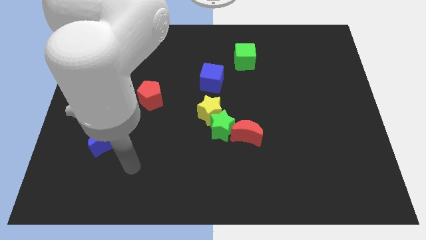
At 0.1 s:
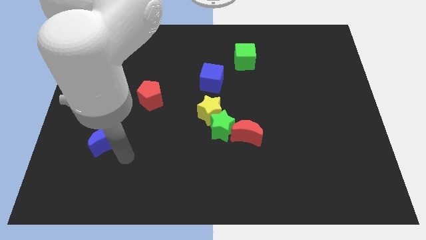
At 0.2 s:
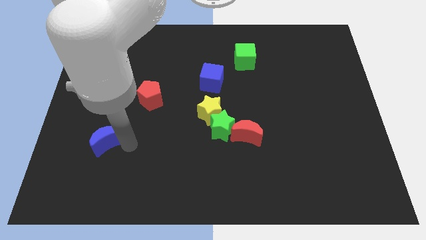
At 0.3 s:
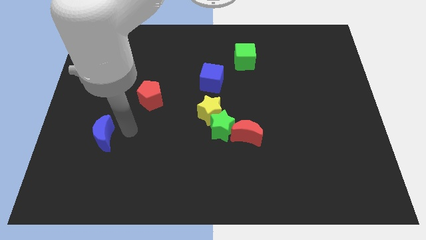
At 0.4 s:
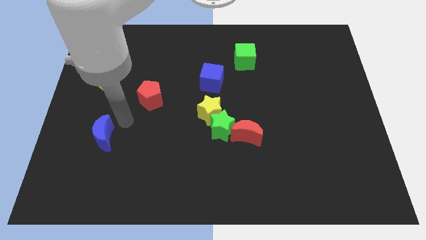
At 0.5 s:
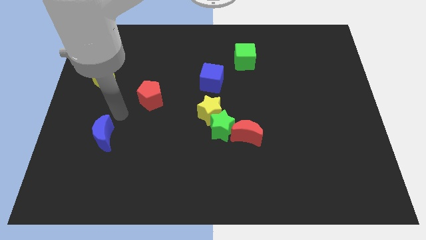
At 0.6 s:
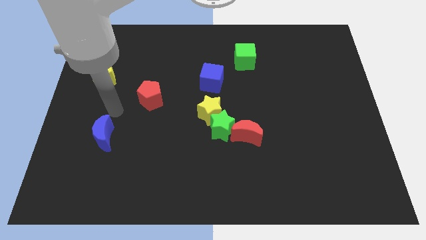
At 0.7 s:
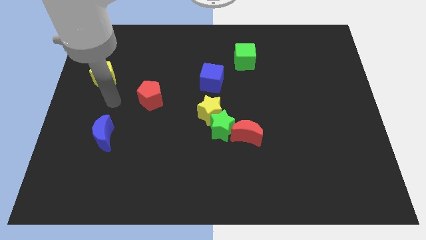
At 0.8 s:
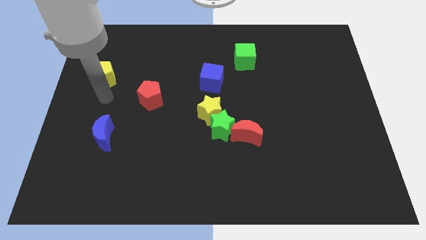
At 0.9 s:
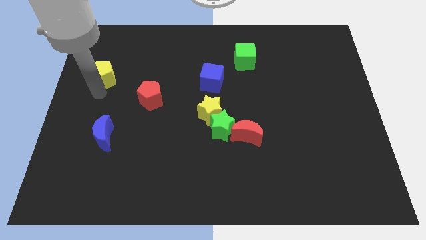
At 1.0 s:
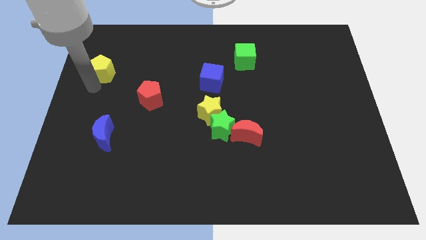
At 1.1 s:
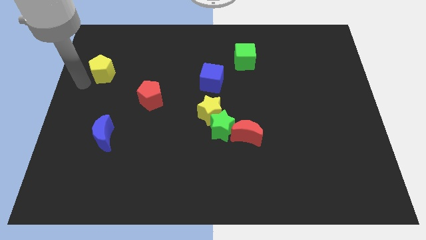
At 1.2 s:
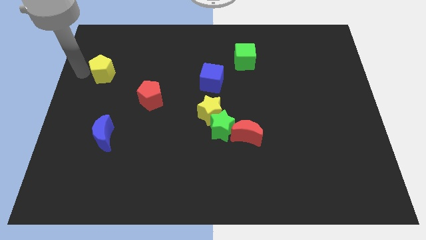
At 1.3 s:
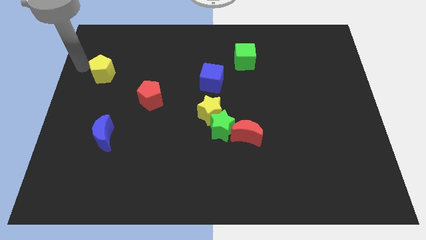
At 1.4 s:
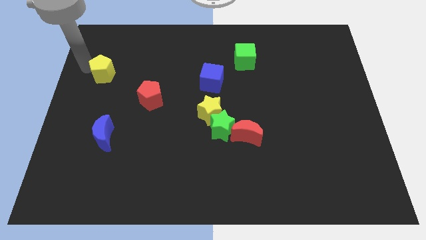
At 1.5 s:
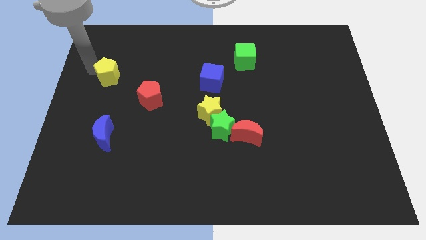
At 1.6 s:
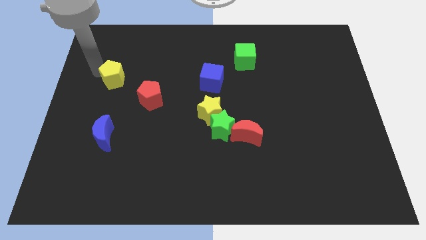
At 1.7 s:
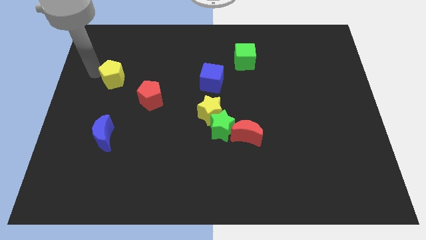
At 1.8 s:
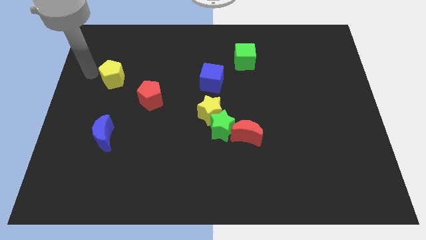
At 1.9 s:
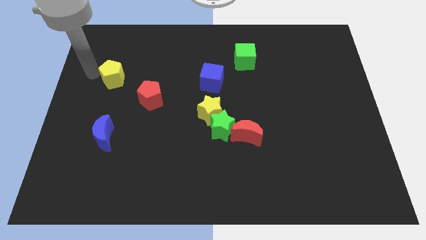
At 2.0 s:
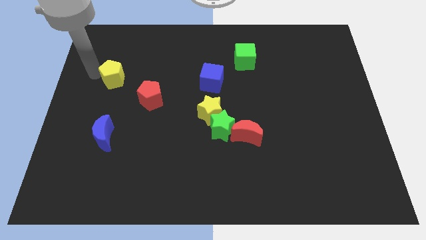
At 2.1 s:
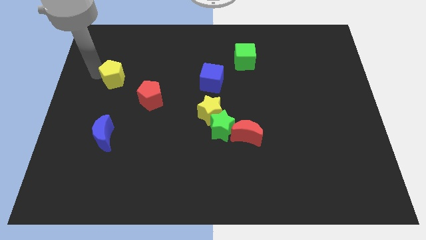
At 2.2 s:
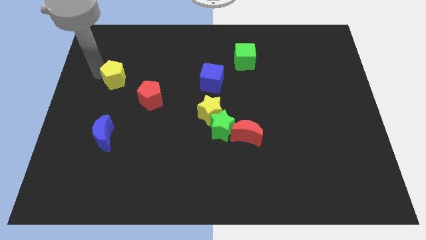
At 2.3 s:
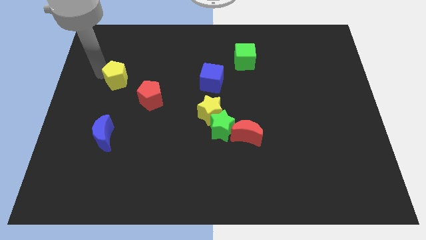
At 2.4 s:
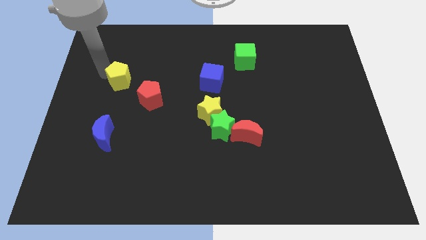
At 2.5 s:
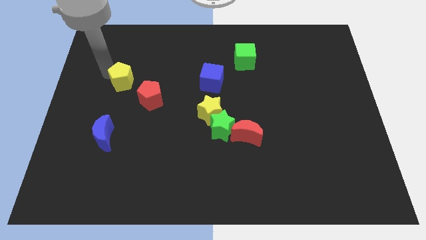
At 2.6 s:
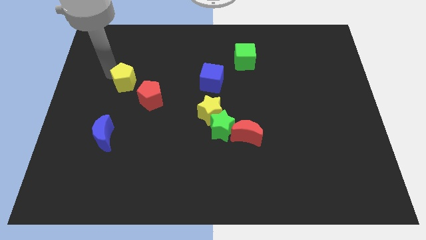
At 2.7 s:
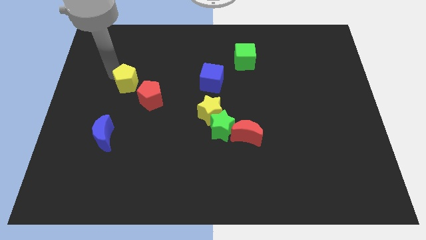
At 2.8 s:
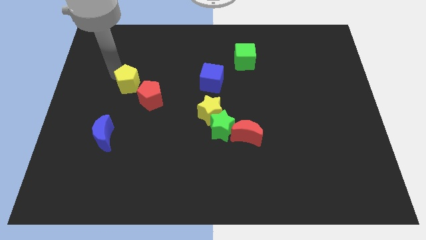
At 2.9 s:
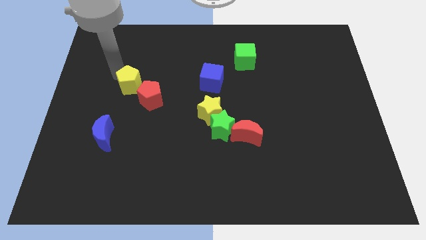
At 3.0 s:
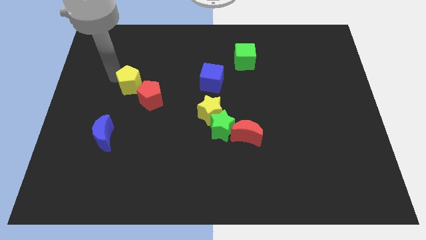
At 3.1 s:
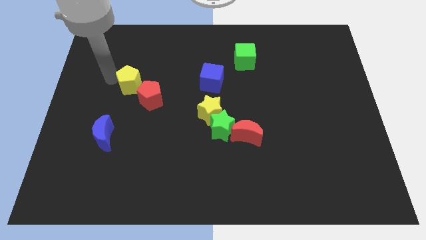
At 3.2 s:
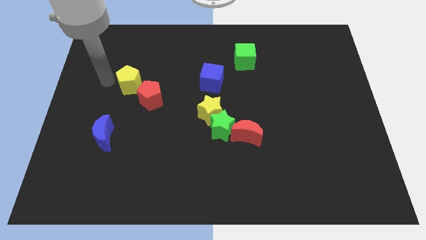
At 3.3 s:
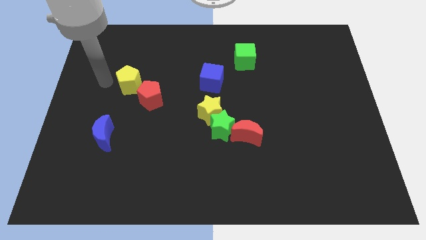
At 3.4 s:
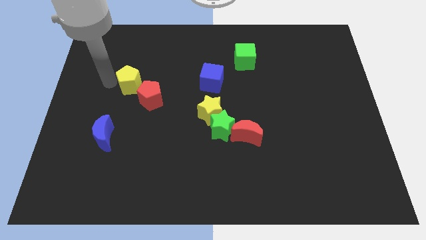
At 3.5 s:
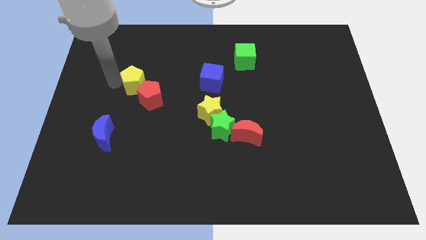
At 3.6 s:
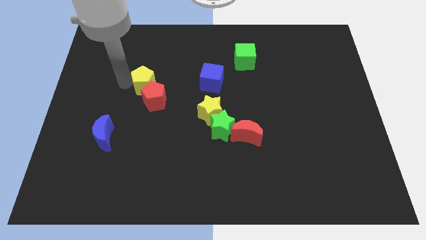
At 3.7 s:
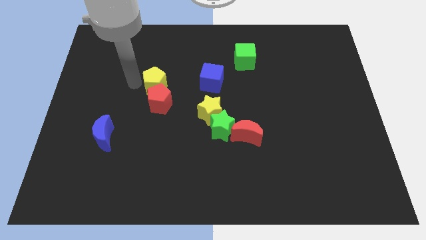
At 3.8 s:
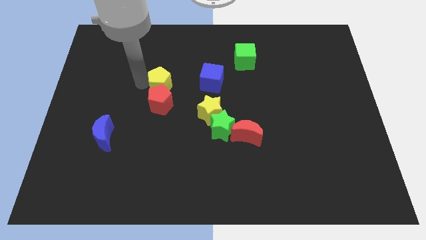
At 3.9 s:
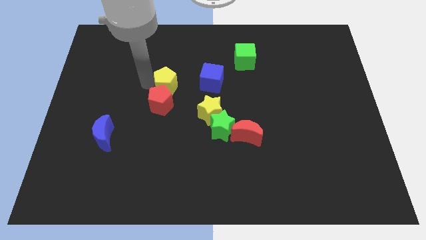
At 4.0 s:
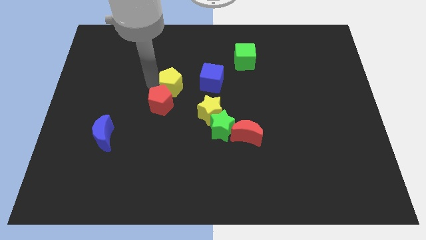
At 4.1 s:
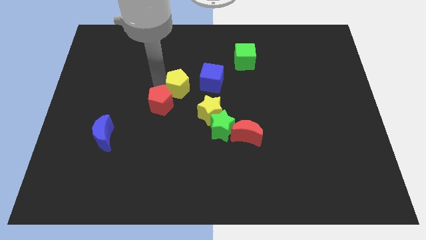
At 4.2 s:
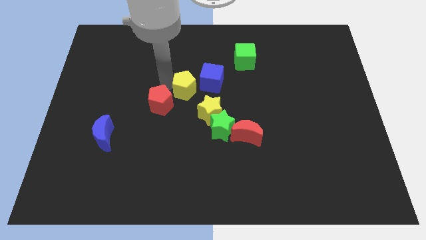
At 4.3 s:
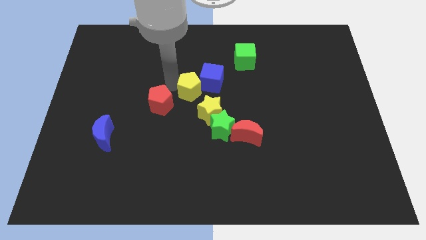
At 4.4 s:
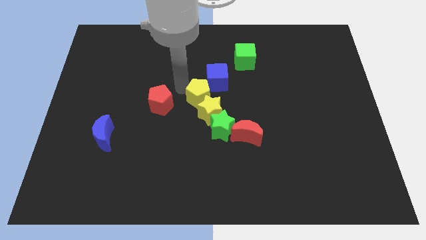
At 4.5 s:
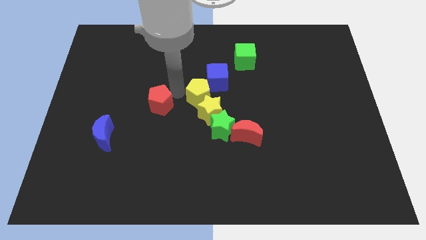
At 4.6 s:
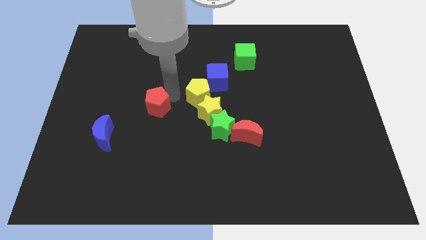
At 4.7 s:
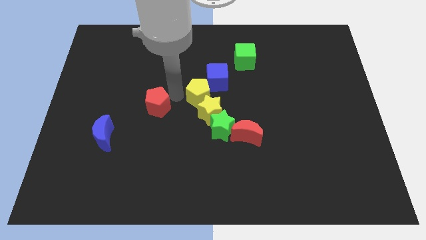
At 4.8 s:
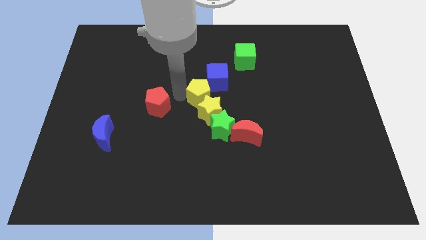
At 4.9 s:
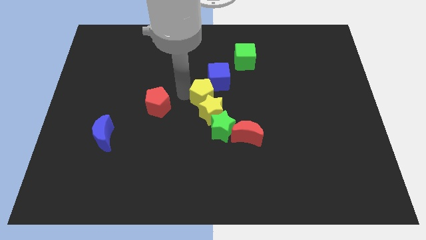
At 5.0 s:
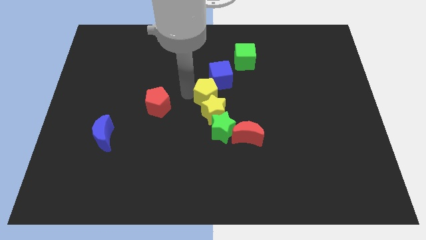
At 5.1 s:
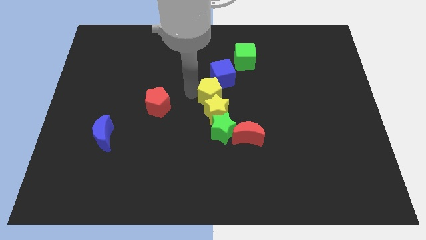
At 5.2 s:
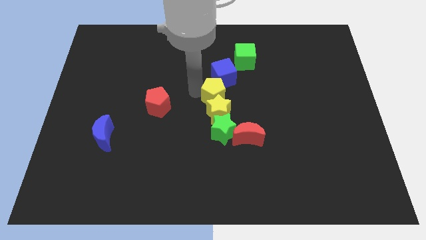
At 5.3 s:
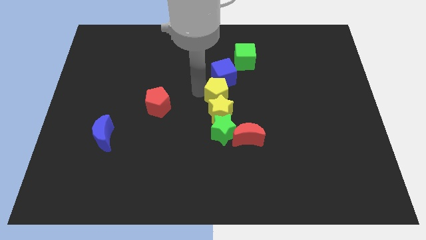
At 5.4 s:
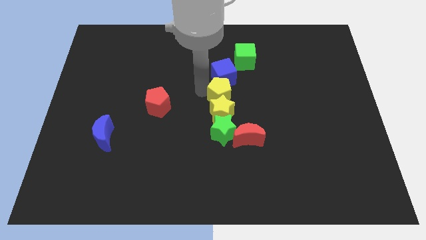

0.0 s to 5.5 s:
push the yellow pentagon to the bottom right side of the blue cube

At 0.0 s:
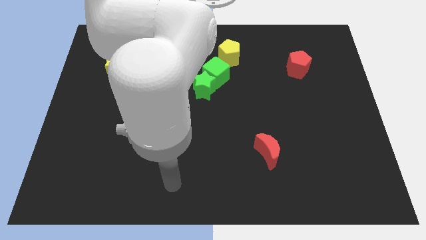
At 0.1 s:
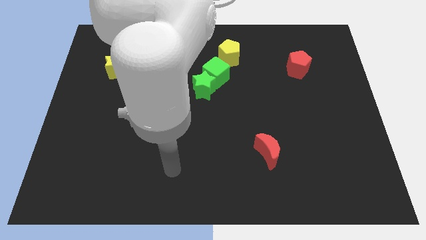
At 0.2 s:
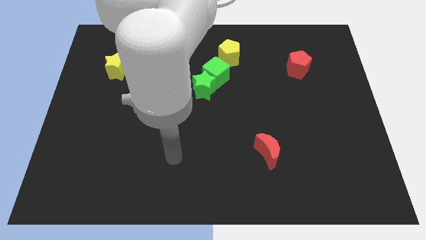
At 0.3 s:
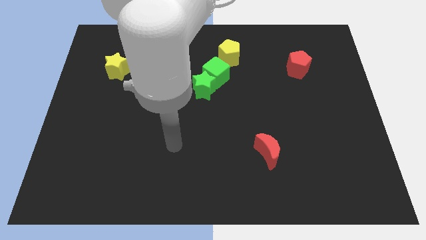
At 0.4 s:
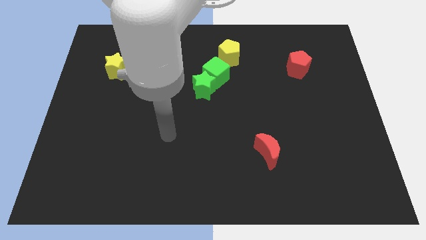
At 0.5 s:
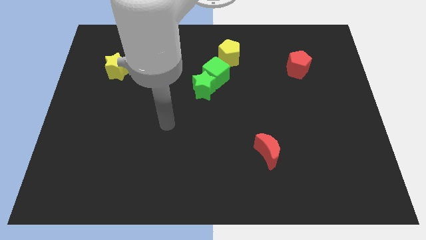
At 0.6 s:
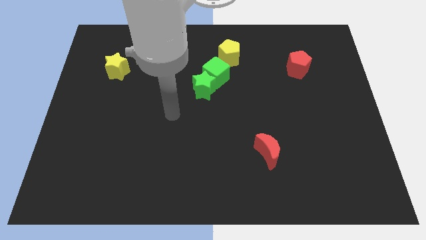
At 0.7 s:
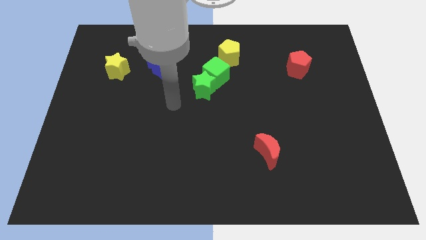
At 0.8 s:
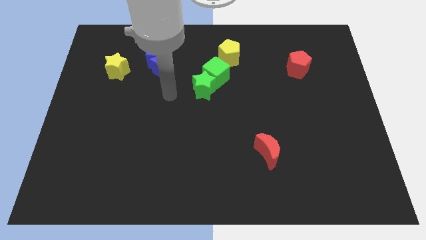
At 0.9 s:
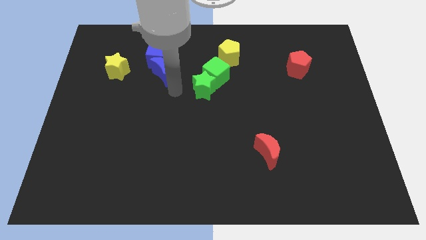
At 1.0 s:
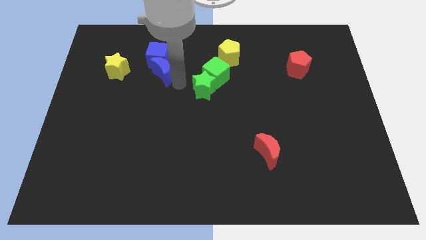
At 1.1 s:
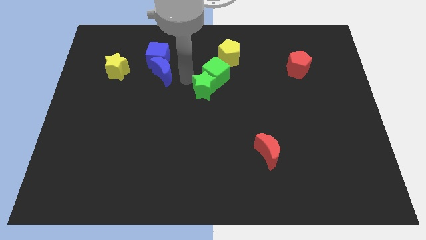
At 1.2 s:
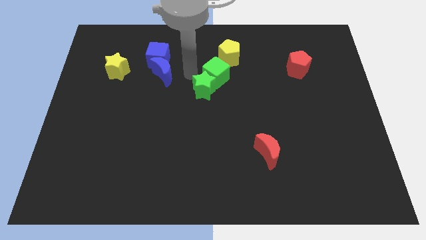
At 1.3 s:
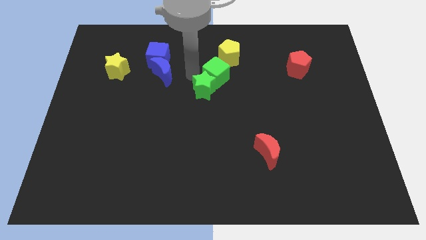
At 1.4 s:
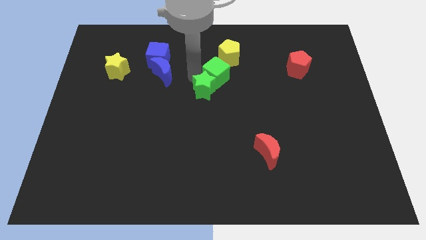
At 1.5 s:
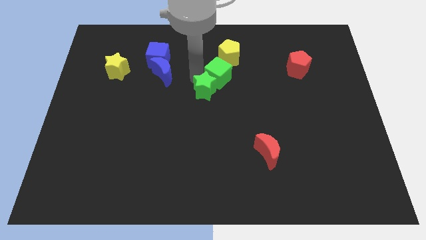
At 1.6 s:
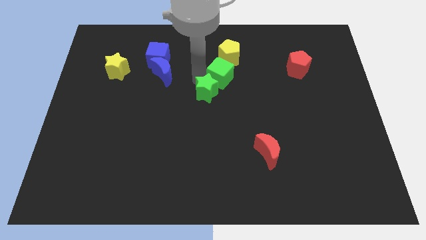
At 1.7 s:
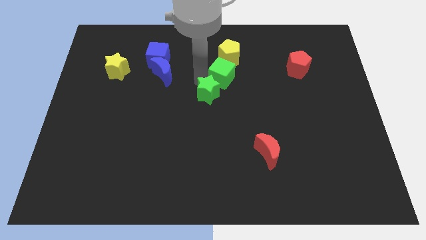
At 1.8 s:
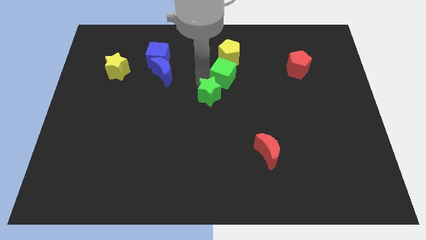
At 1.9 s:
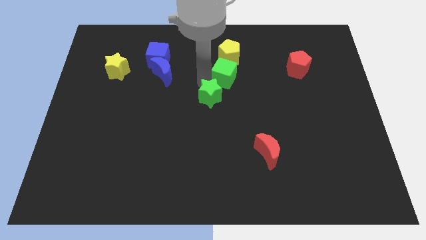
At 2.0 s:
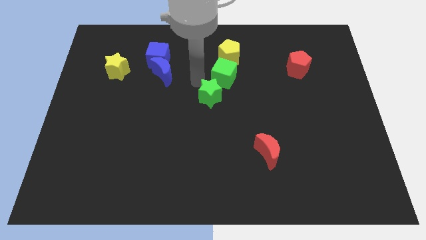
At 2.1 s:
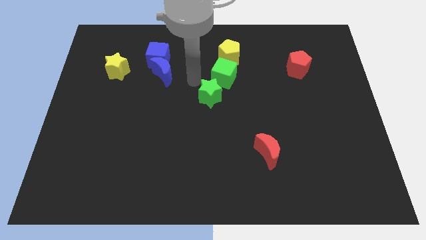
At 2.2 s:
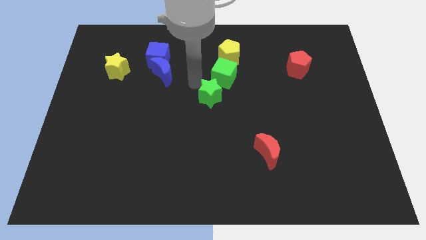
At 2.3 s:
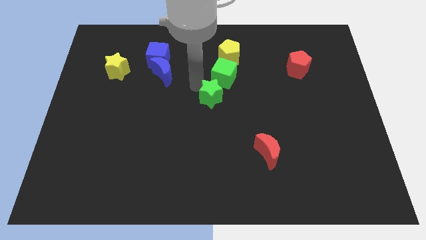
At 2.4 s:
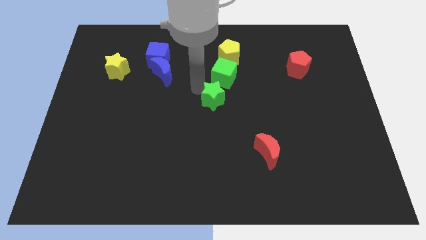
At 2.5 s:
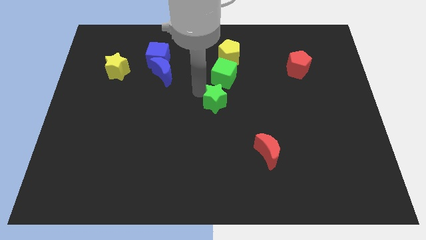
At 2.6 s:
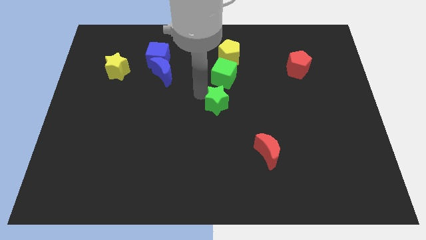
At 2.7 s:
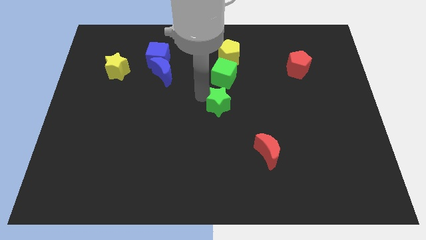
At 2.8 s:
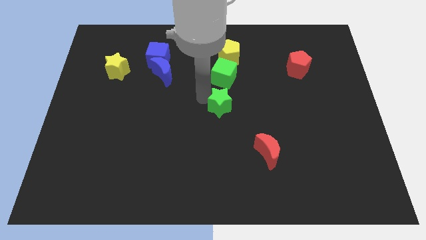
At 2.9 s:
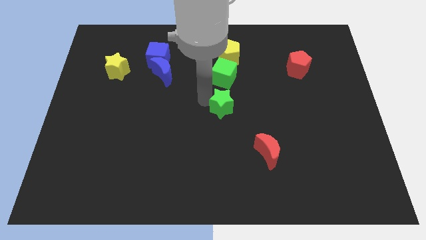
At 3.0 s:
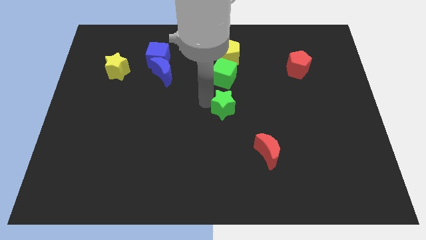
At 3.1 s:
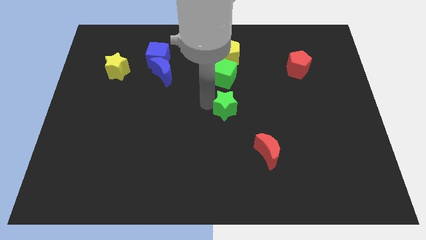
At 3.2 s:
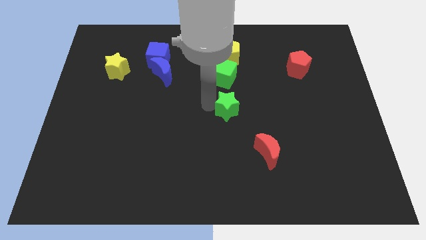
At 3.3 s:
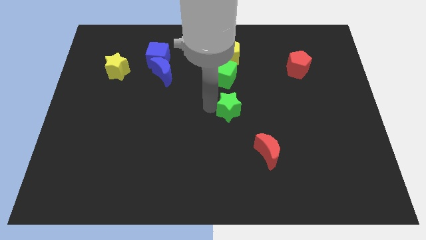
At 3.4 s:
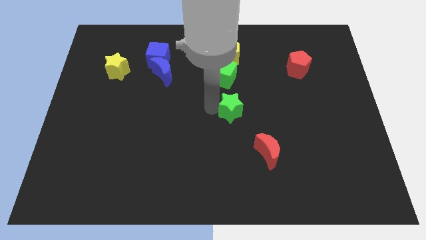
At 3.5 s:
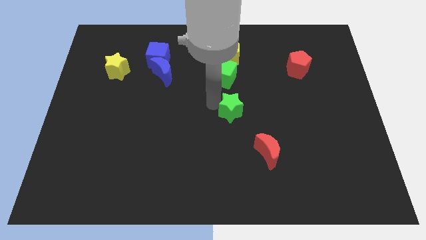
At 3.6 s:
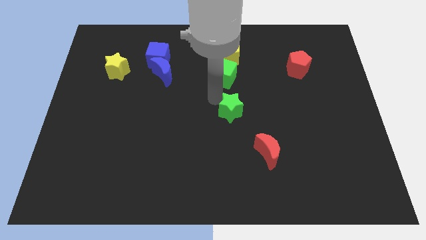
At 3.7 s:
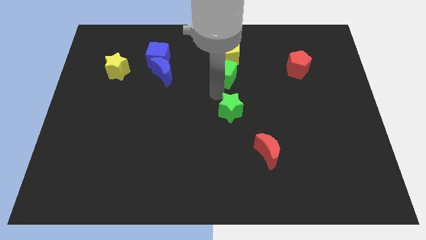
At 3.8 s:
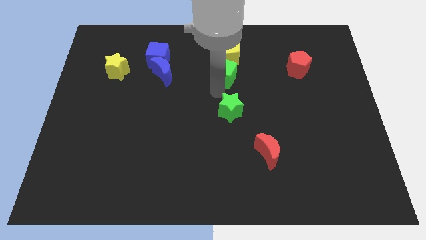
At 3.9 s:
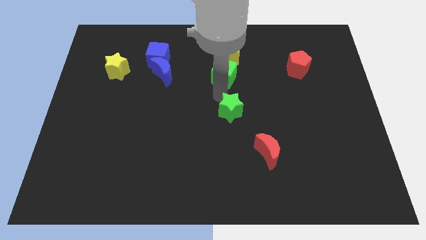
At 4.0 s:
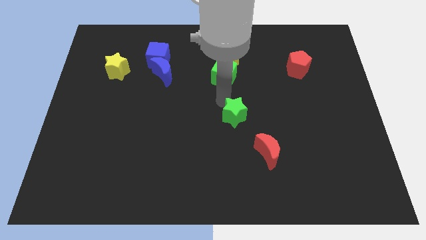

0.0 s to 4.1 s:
put the green star to the top left side of the red moon
